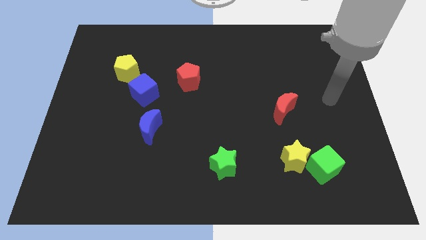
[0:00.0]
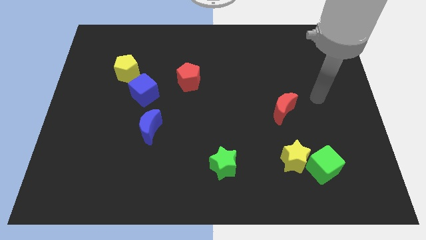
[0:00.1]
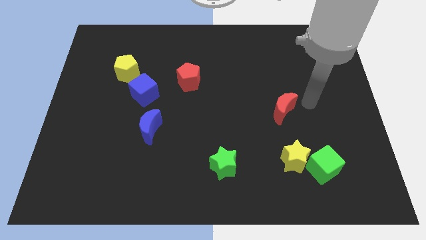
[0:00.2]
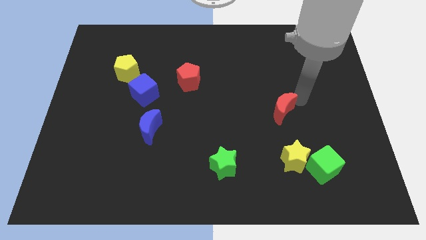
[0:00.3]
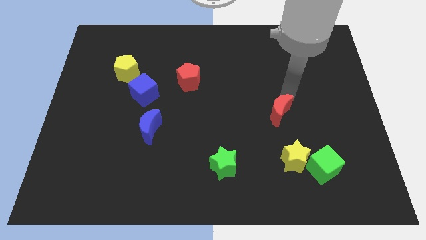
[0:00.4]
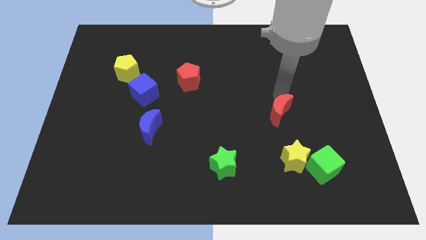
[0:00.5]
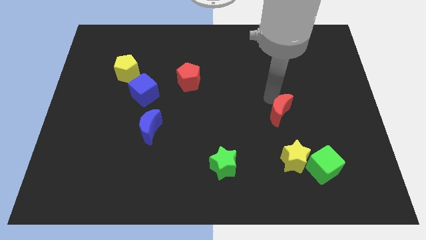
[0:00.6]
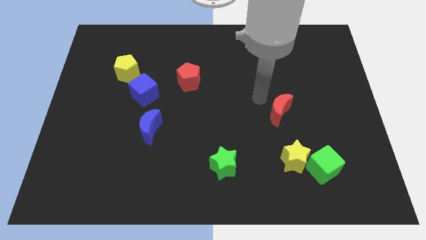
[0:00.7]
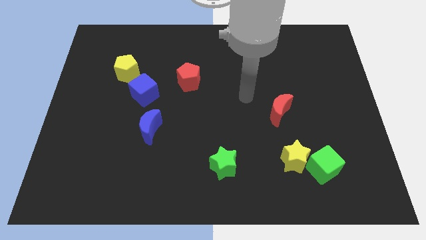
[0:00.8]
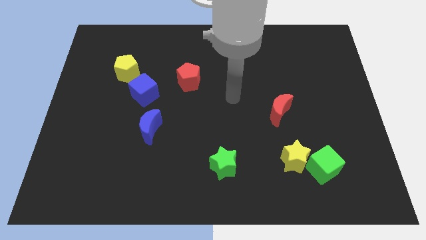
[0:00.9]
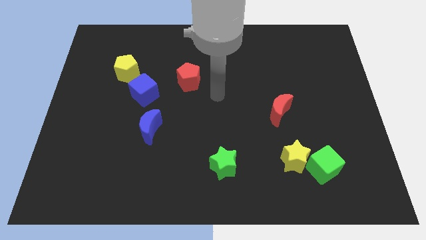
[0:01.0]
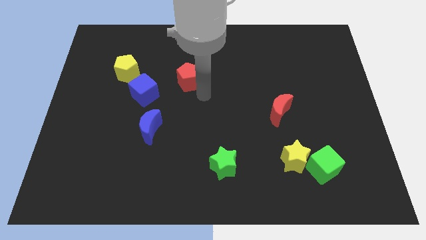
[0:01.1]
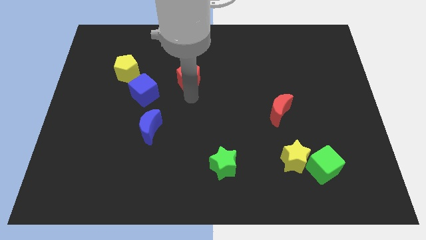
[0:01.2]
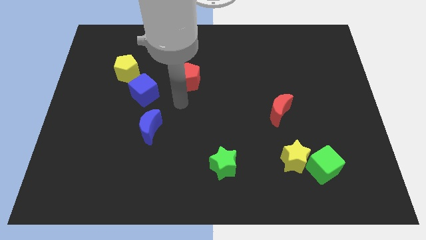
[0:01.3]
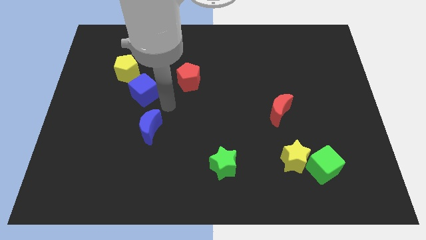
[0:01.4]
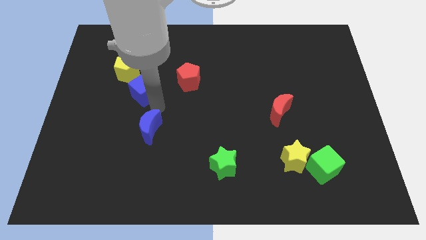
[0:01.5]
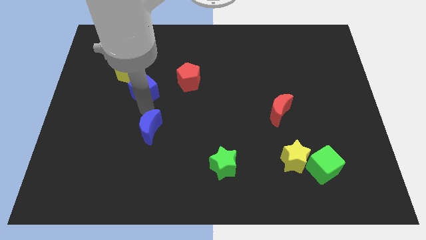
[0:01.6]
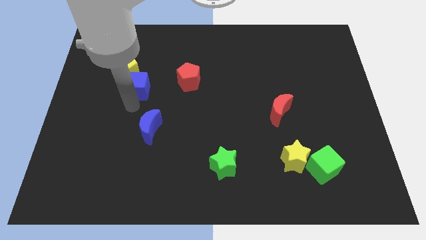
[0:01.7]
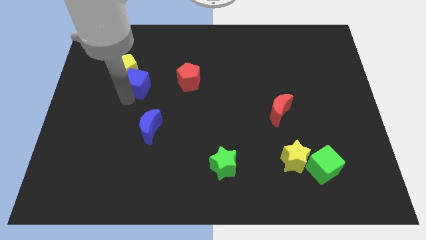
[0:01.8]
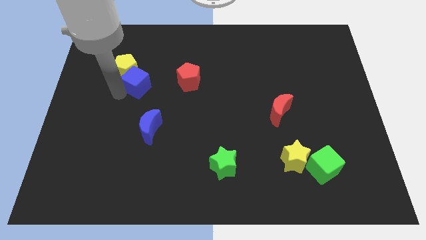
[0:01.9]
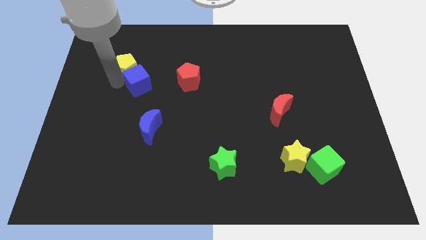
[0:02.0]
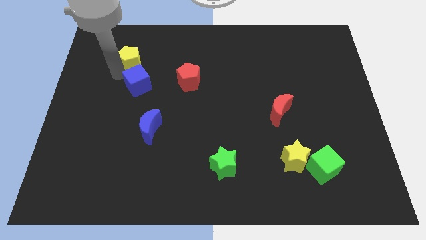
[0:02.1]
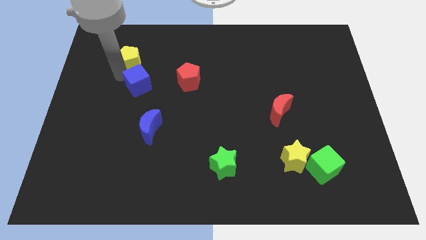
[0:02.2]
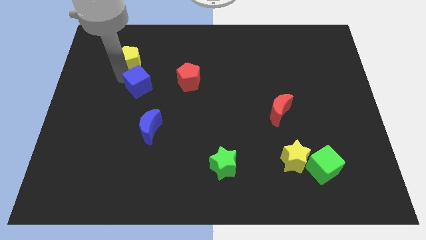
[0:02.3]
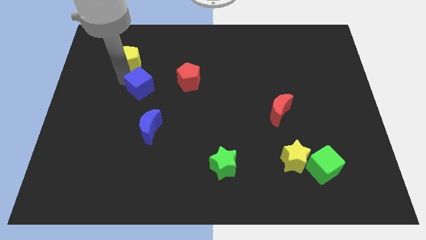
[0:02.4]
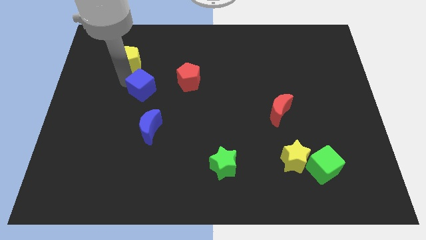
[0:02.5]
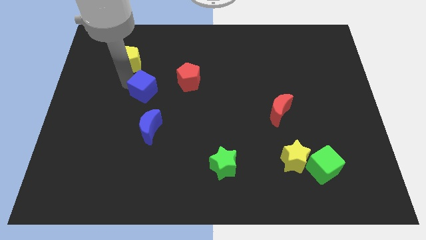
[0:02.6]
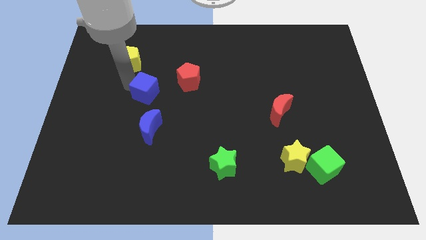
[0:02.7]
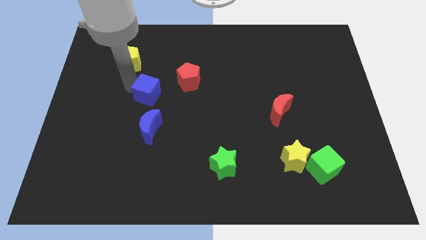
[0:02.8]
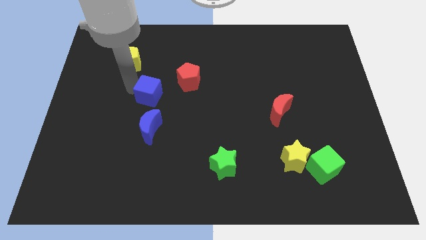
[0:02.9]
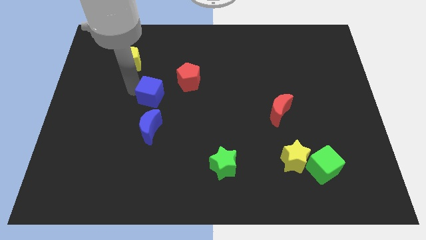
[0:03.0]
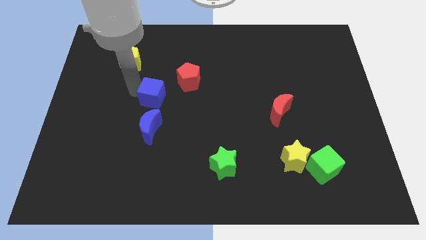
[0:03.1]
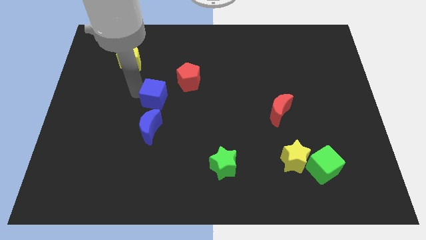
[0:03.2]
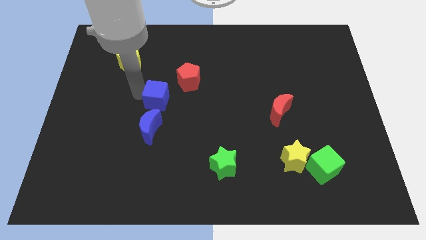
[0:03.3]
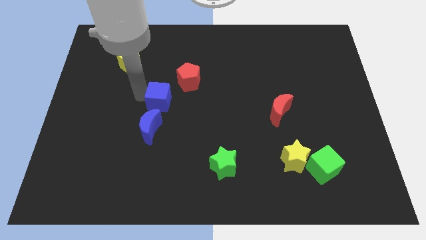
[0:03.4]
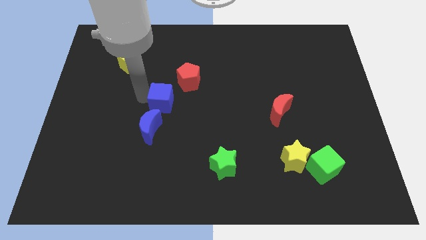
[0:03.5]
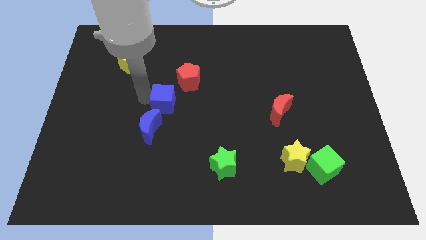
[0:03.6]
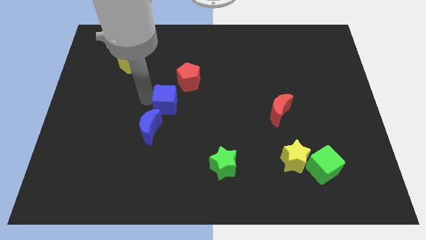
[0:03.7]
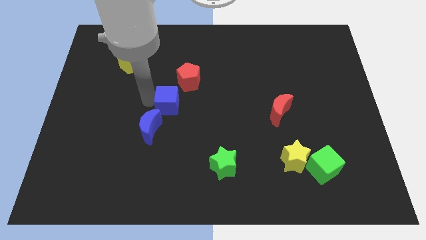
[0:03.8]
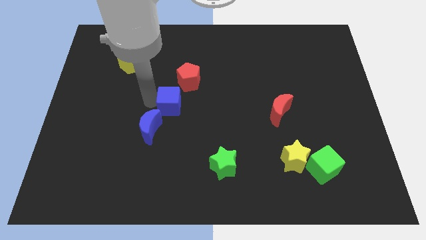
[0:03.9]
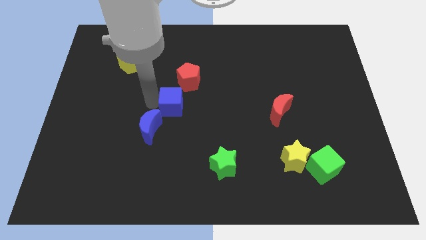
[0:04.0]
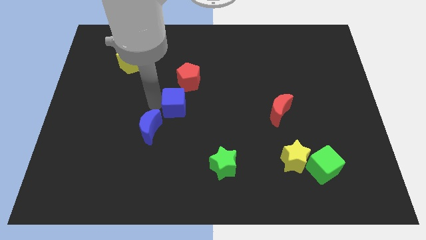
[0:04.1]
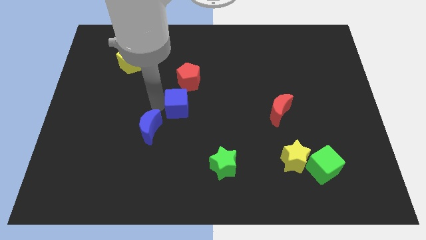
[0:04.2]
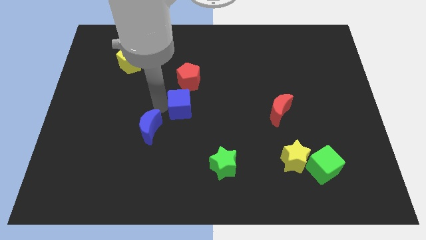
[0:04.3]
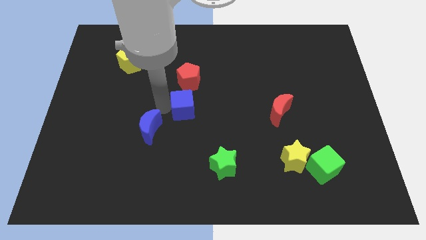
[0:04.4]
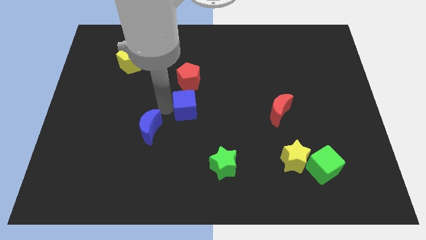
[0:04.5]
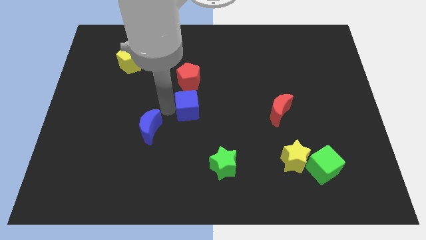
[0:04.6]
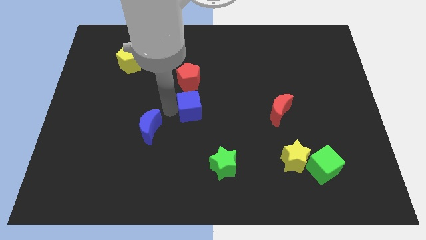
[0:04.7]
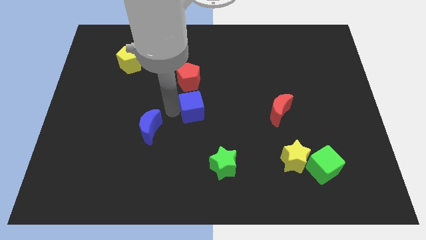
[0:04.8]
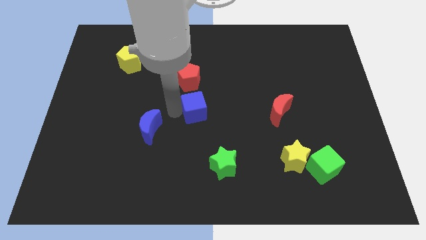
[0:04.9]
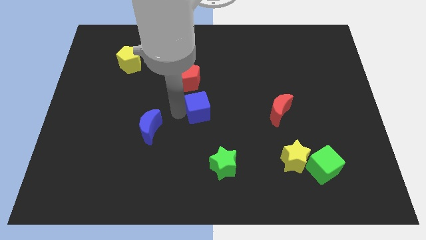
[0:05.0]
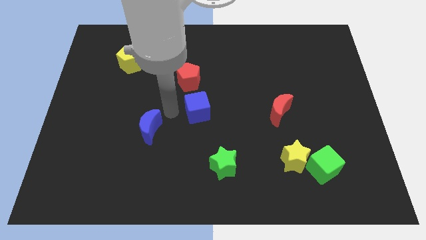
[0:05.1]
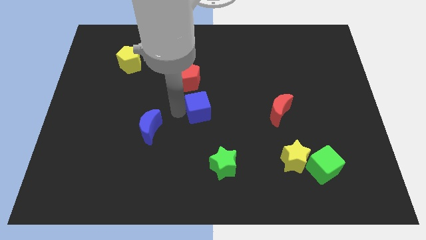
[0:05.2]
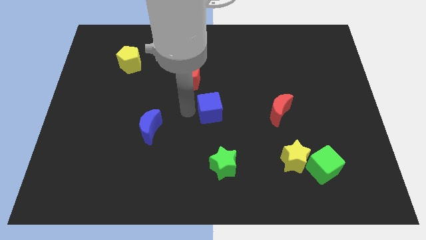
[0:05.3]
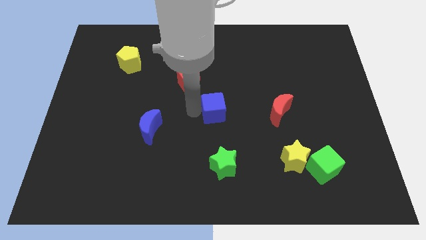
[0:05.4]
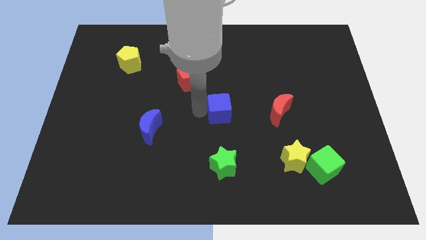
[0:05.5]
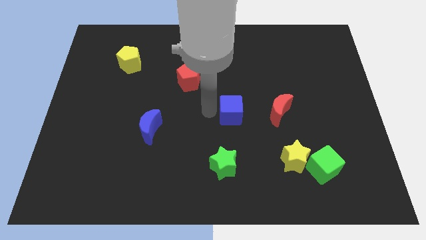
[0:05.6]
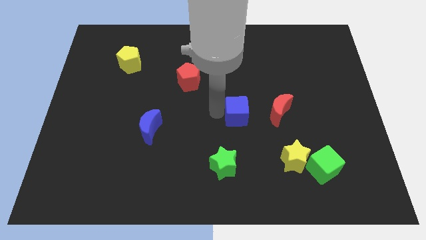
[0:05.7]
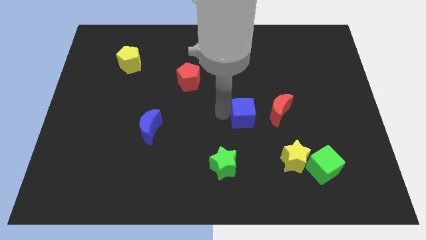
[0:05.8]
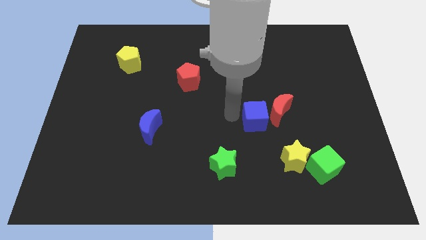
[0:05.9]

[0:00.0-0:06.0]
put the blue cube towards the red moon

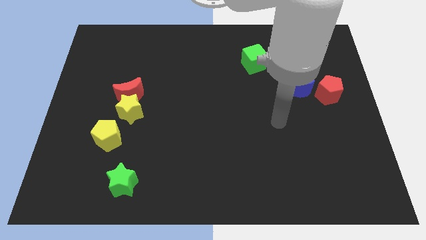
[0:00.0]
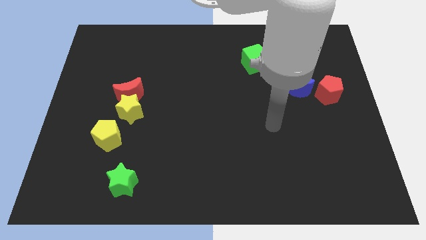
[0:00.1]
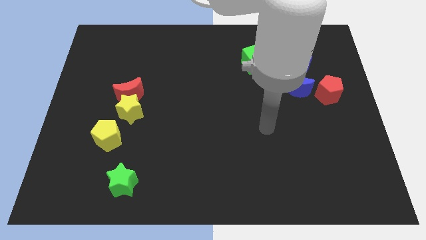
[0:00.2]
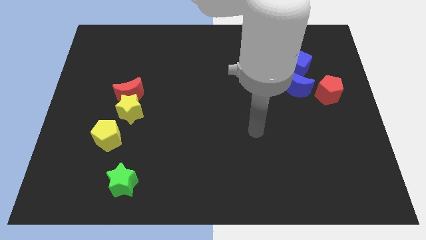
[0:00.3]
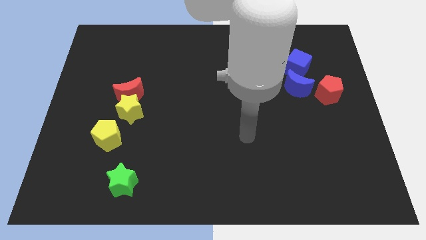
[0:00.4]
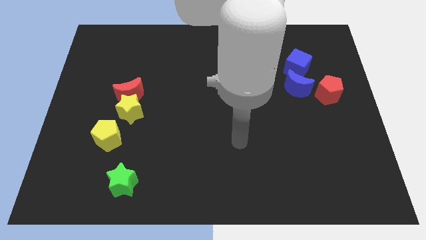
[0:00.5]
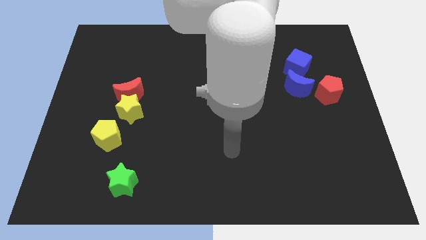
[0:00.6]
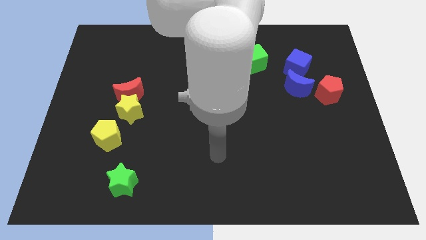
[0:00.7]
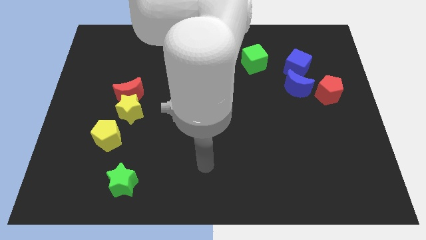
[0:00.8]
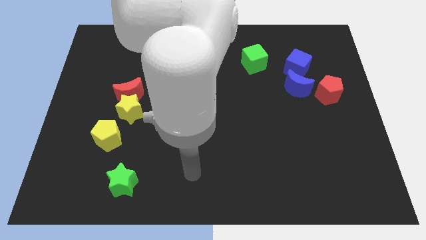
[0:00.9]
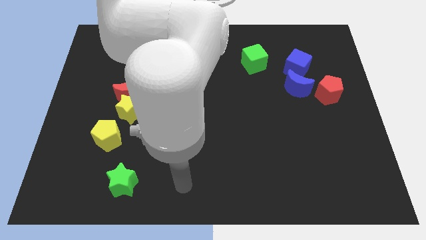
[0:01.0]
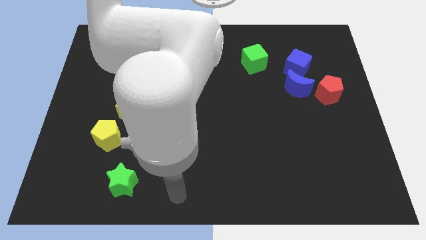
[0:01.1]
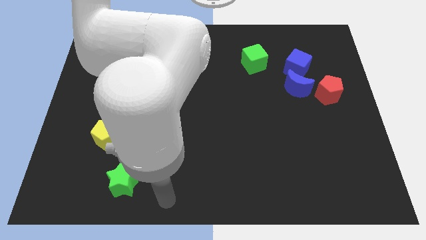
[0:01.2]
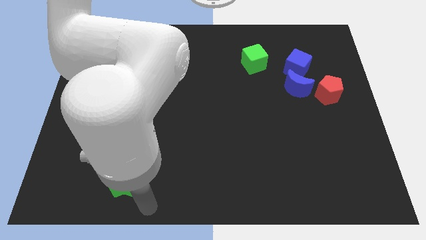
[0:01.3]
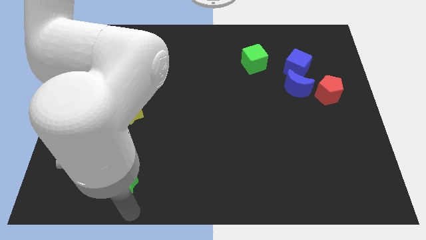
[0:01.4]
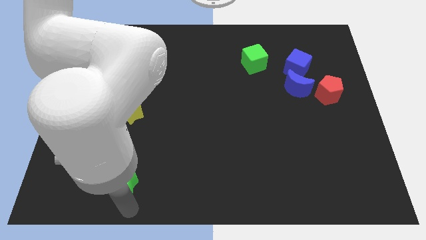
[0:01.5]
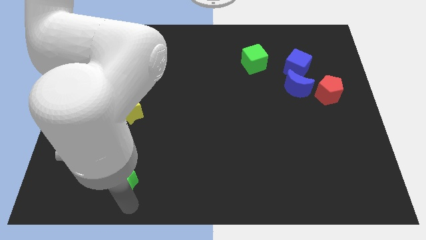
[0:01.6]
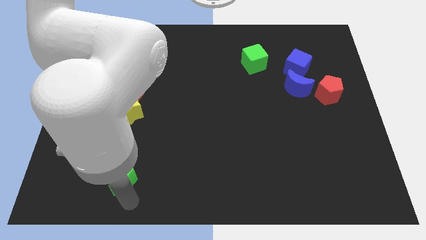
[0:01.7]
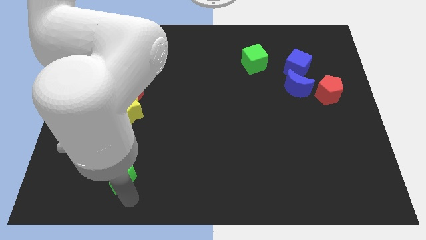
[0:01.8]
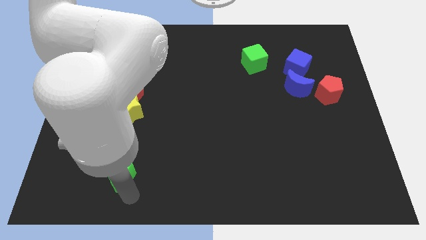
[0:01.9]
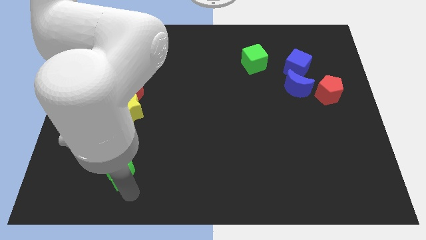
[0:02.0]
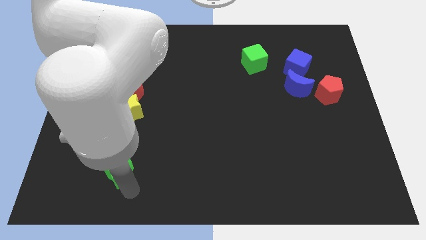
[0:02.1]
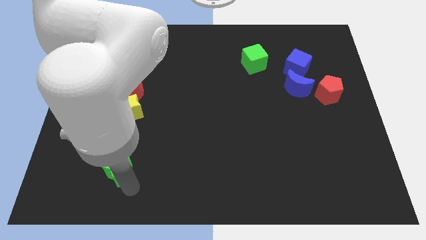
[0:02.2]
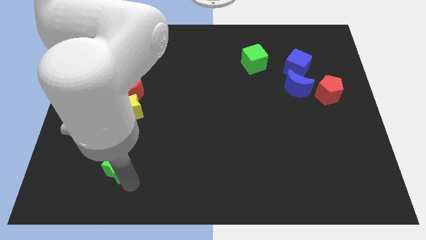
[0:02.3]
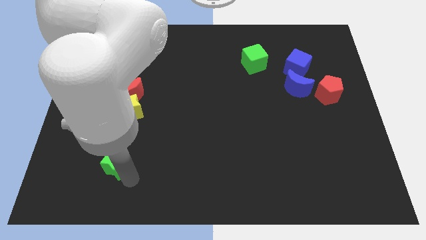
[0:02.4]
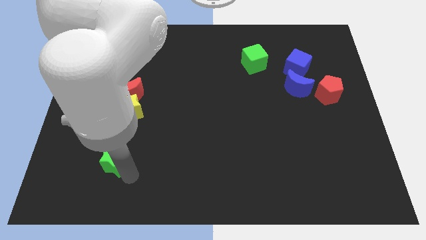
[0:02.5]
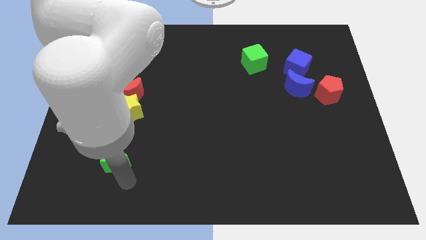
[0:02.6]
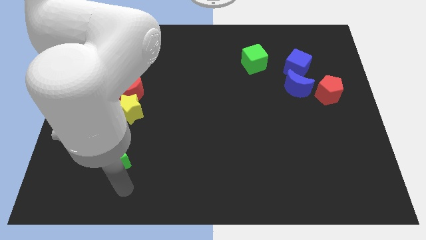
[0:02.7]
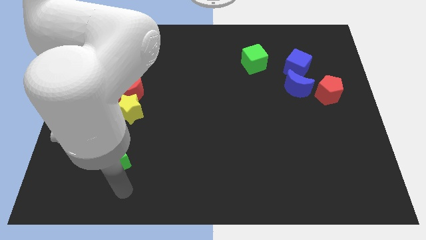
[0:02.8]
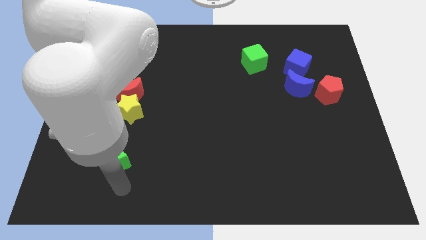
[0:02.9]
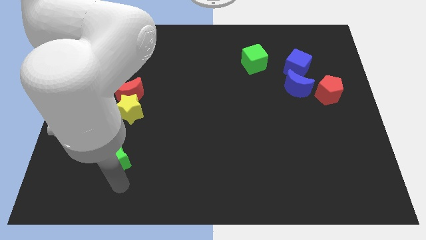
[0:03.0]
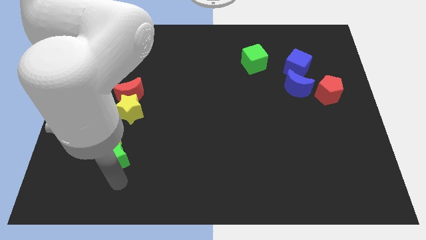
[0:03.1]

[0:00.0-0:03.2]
push the green star to the yellow pentagon
